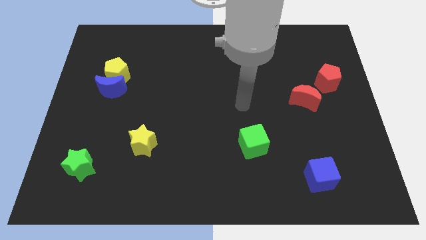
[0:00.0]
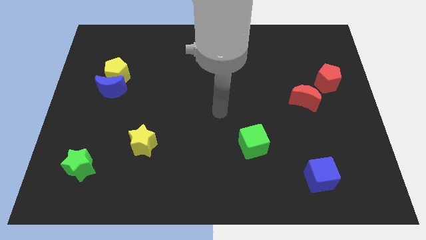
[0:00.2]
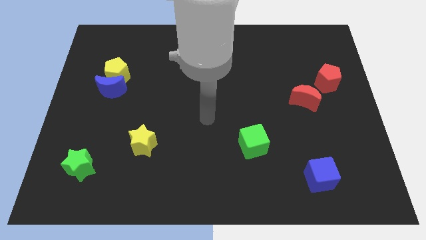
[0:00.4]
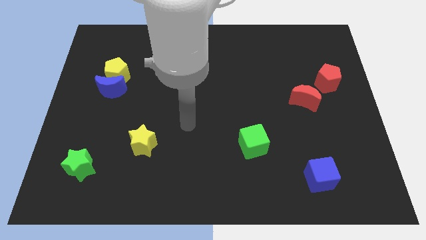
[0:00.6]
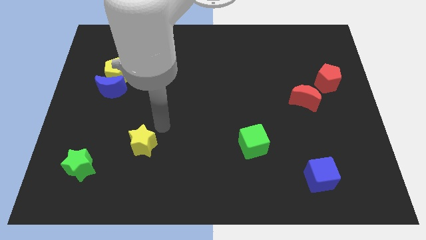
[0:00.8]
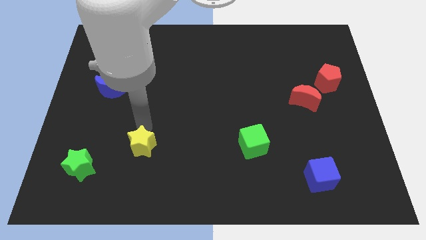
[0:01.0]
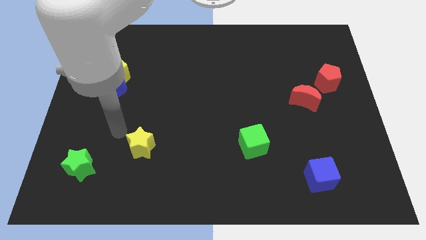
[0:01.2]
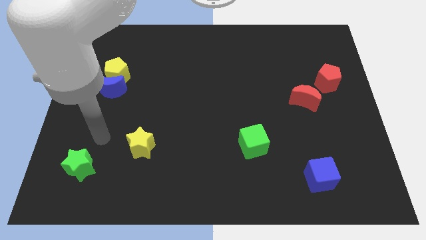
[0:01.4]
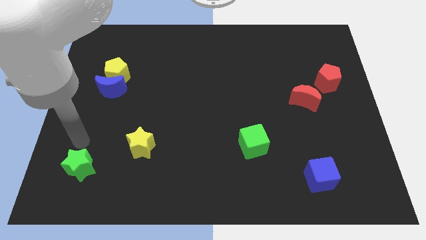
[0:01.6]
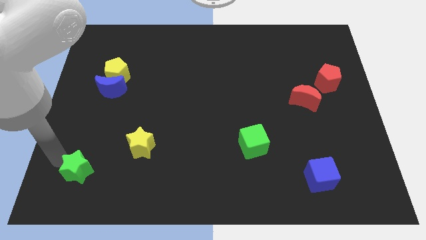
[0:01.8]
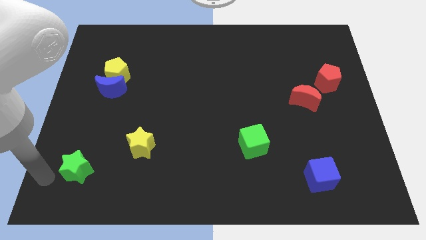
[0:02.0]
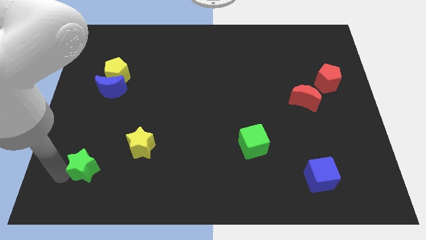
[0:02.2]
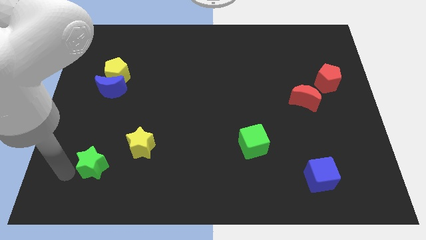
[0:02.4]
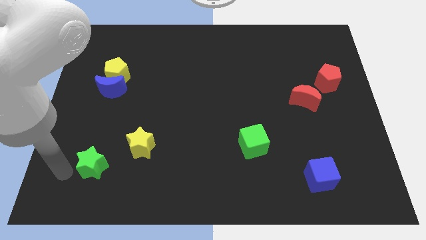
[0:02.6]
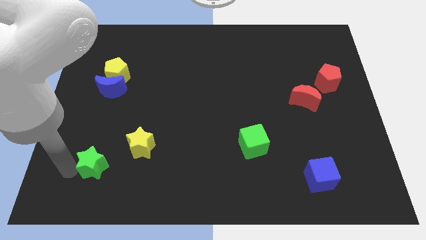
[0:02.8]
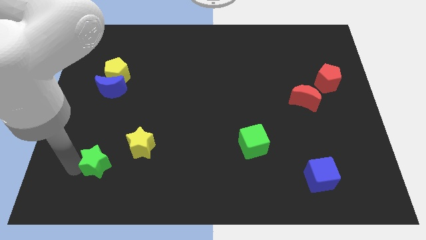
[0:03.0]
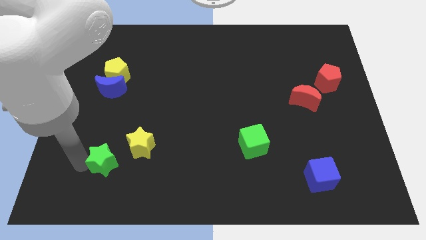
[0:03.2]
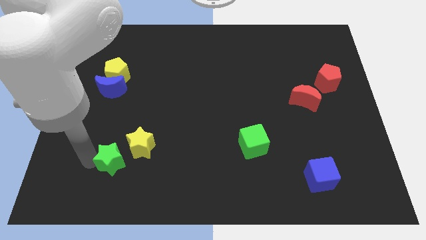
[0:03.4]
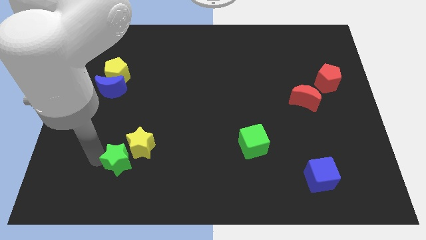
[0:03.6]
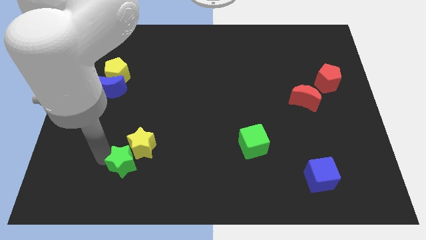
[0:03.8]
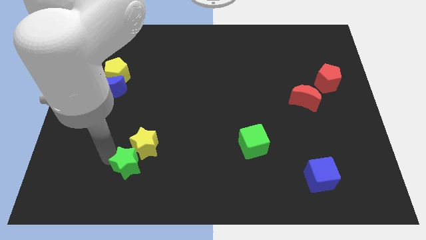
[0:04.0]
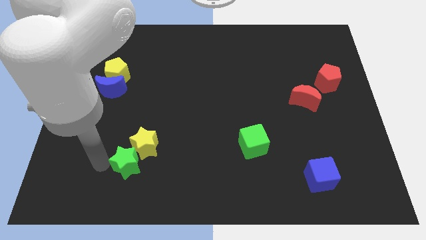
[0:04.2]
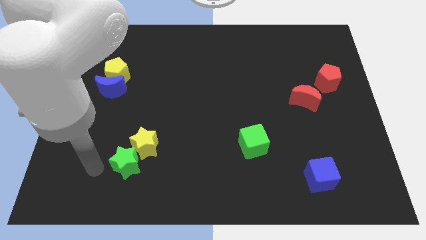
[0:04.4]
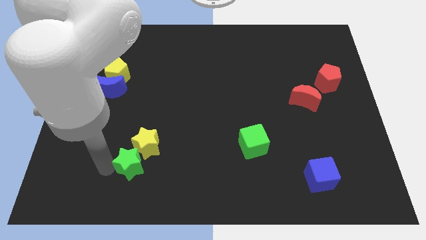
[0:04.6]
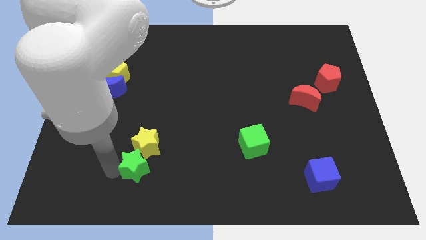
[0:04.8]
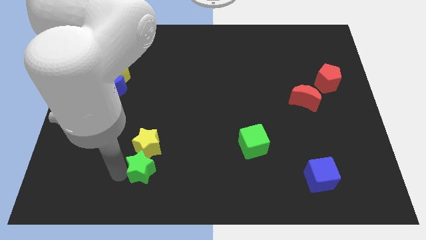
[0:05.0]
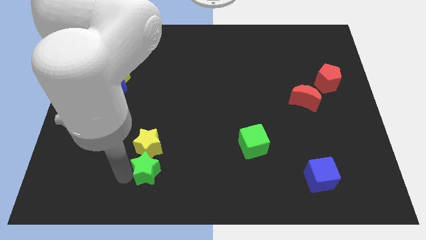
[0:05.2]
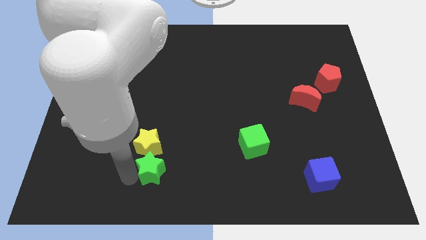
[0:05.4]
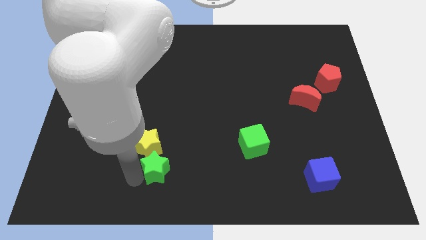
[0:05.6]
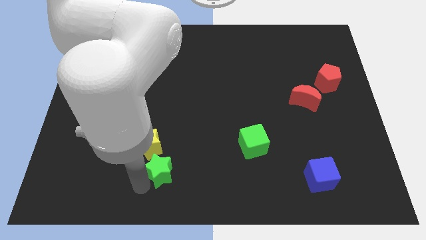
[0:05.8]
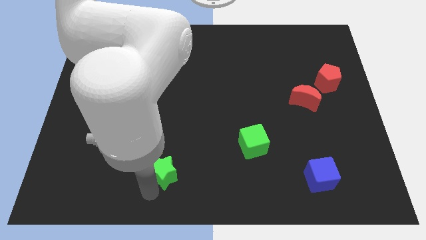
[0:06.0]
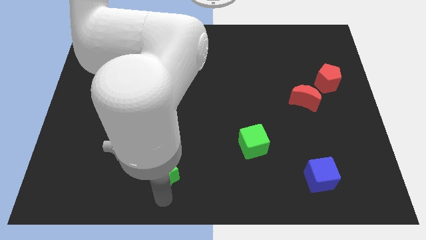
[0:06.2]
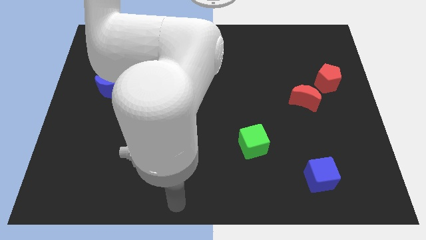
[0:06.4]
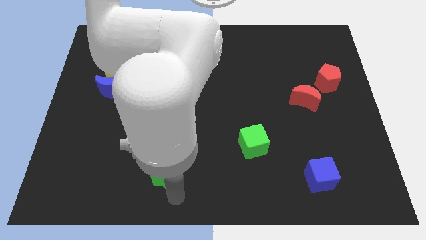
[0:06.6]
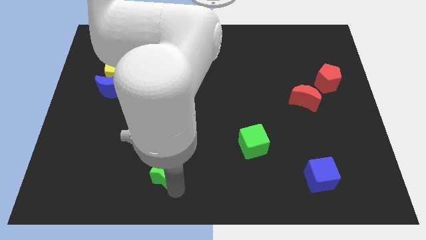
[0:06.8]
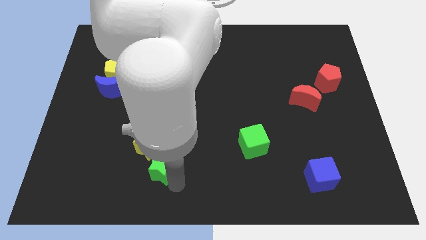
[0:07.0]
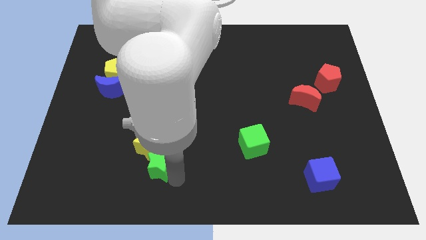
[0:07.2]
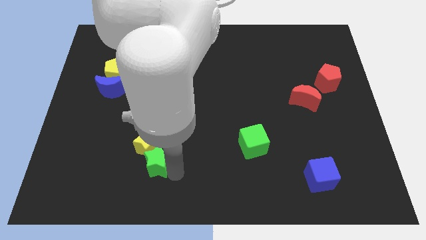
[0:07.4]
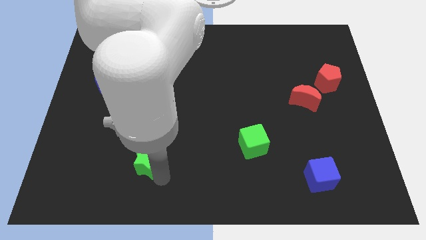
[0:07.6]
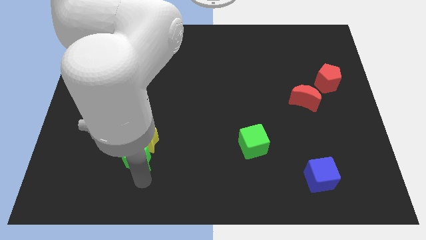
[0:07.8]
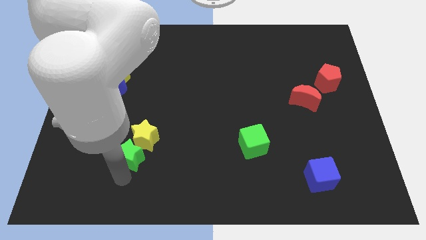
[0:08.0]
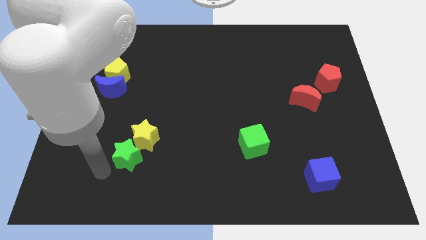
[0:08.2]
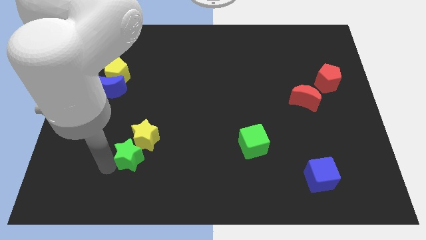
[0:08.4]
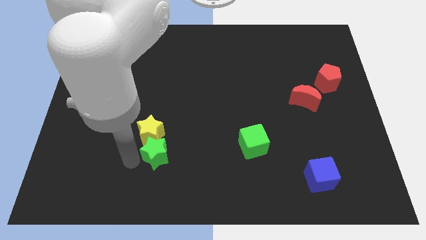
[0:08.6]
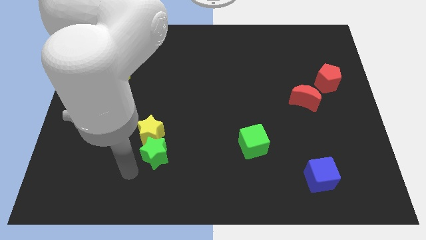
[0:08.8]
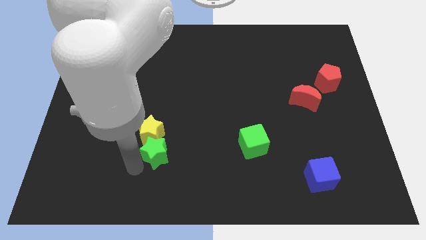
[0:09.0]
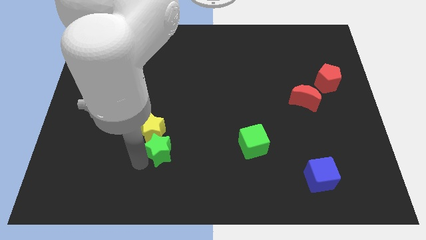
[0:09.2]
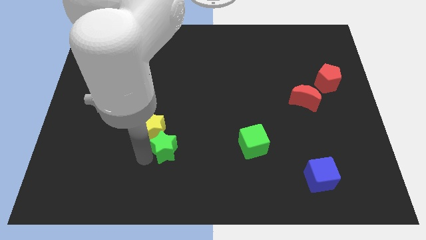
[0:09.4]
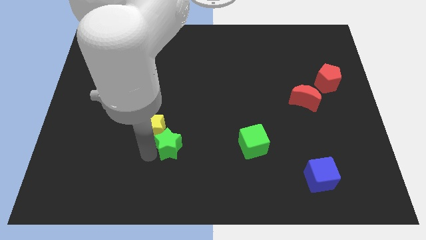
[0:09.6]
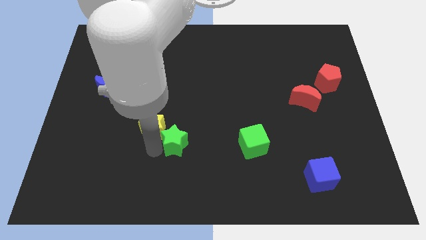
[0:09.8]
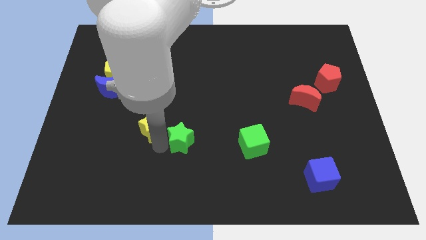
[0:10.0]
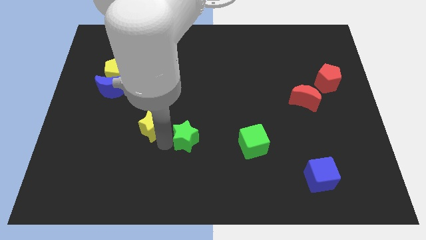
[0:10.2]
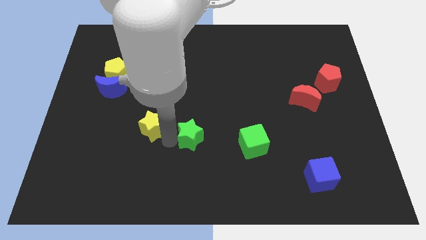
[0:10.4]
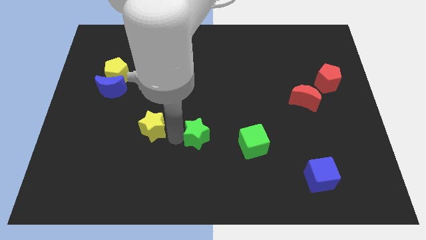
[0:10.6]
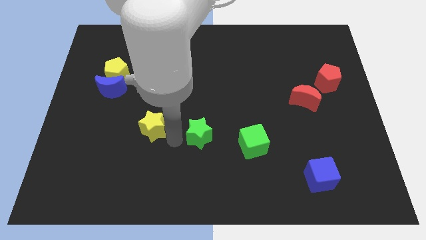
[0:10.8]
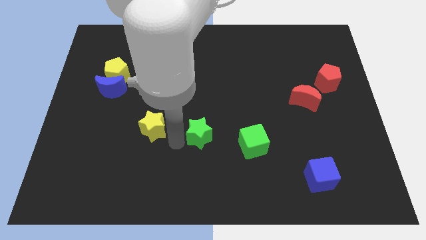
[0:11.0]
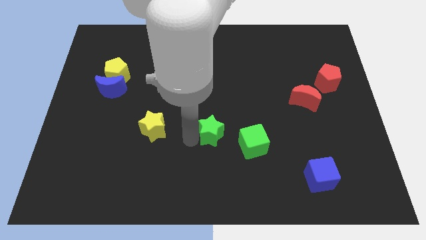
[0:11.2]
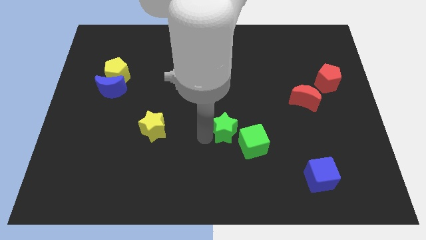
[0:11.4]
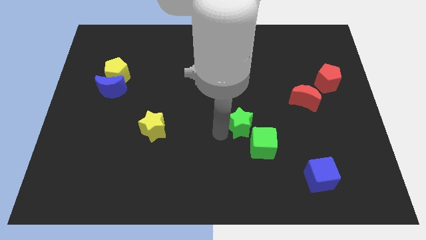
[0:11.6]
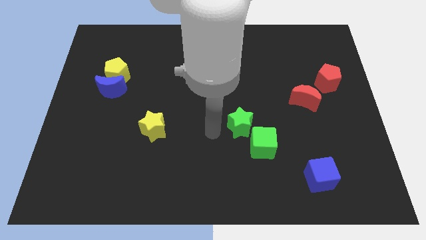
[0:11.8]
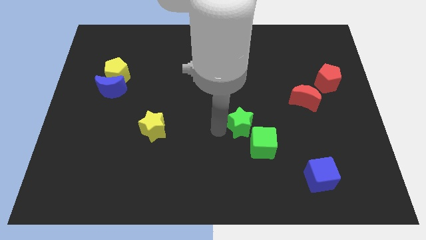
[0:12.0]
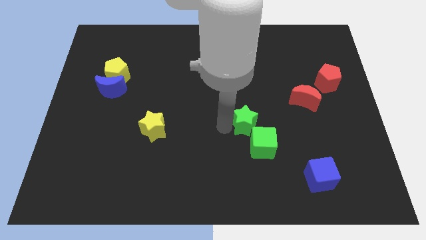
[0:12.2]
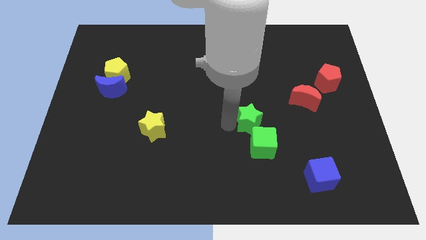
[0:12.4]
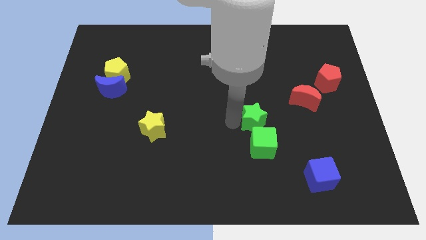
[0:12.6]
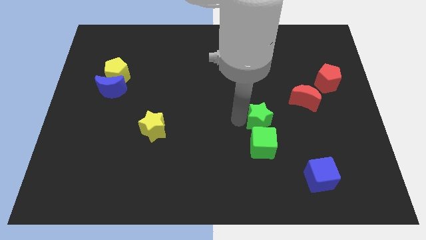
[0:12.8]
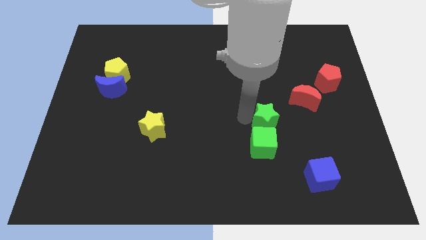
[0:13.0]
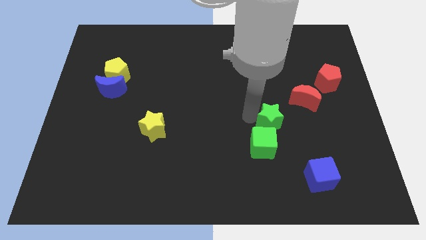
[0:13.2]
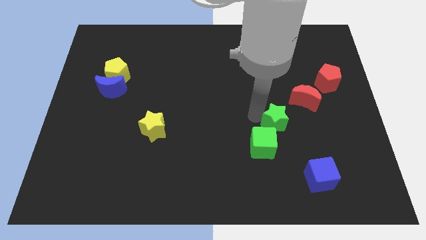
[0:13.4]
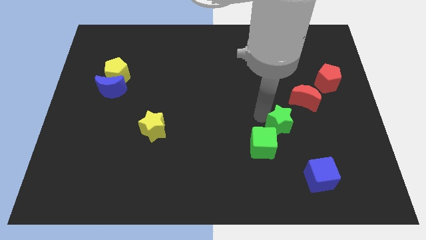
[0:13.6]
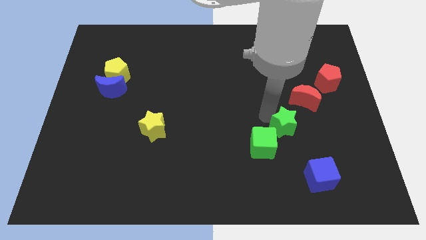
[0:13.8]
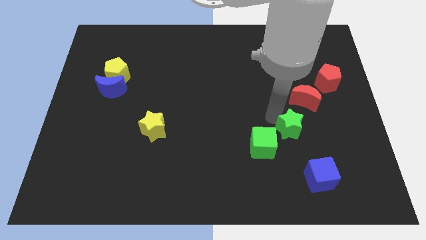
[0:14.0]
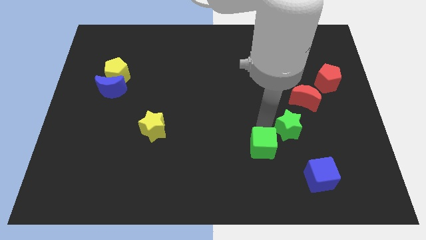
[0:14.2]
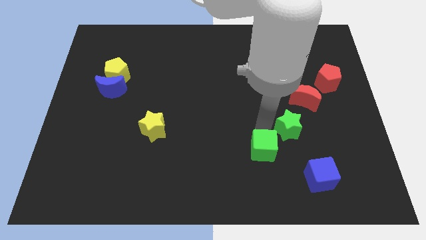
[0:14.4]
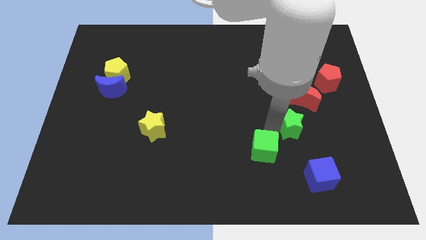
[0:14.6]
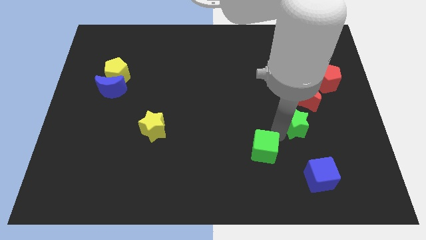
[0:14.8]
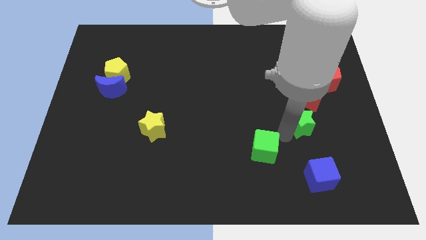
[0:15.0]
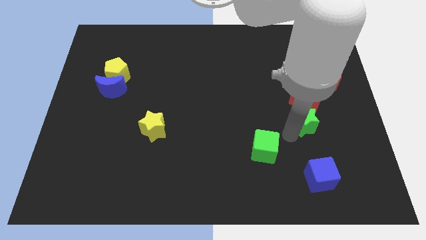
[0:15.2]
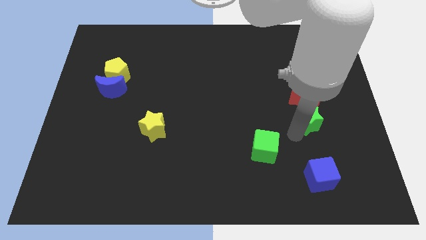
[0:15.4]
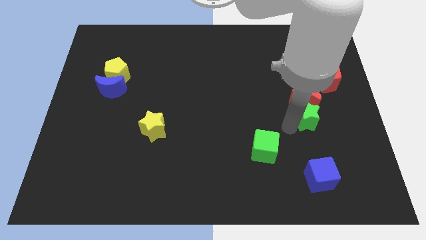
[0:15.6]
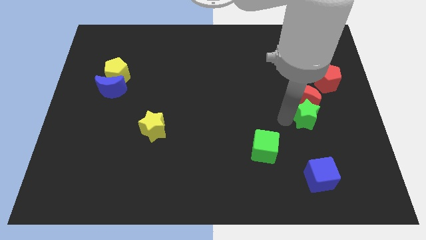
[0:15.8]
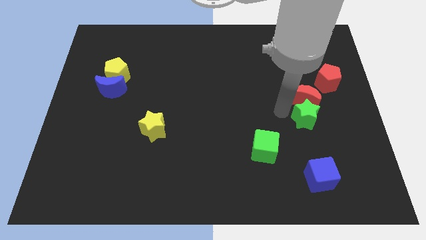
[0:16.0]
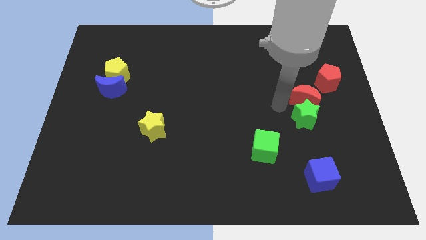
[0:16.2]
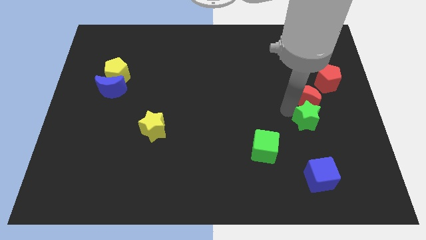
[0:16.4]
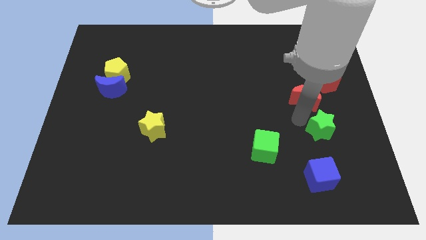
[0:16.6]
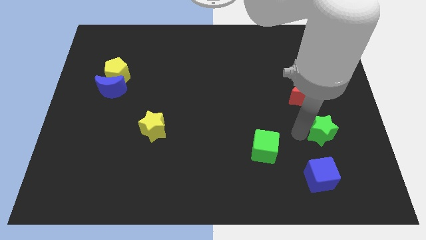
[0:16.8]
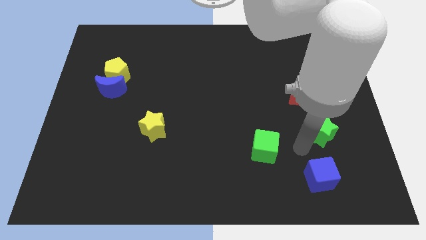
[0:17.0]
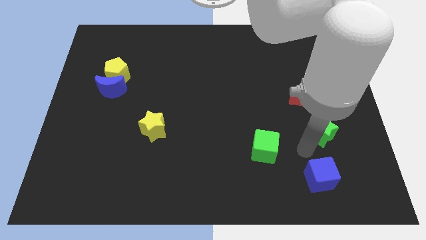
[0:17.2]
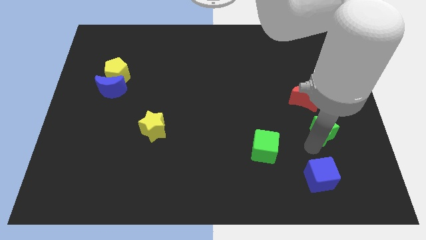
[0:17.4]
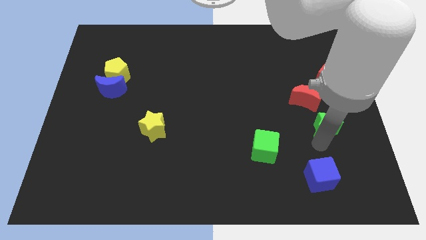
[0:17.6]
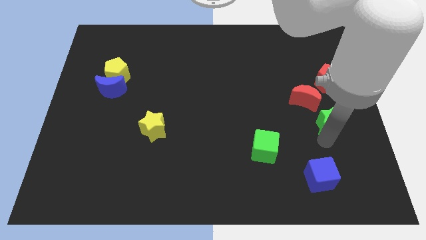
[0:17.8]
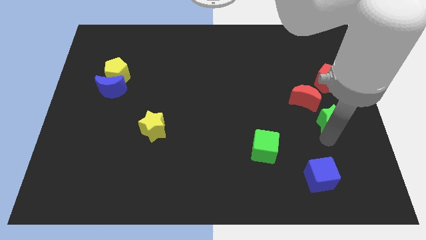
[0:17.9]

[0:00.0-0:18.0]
push the green star to the center right
